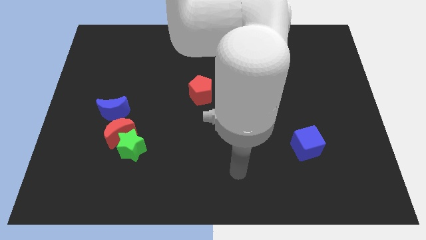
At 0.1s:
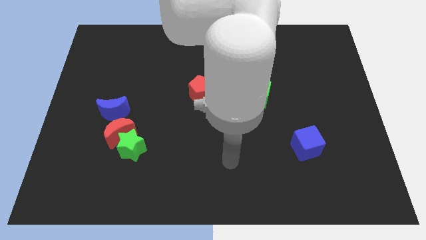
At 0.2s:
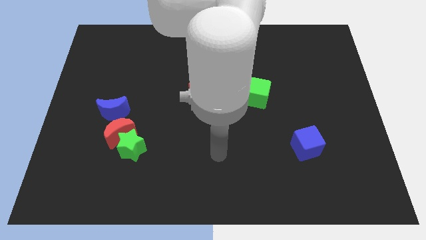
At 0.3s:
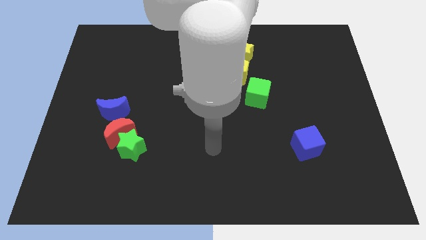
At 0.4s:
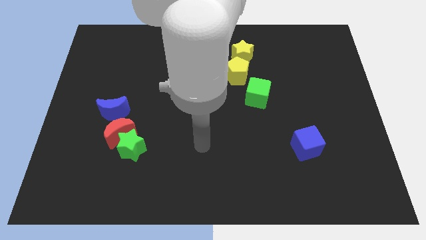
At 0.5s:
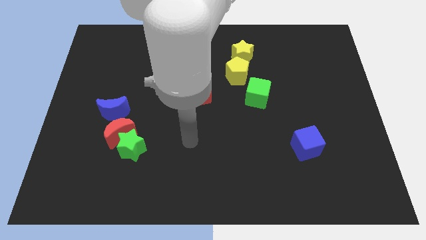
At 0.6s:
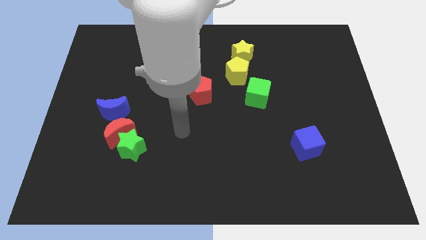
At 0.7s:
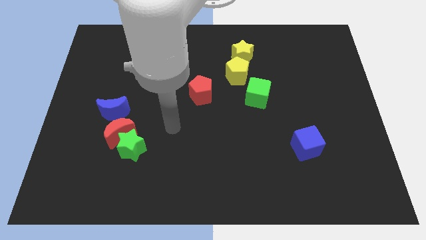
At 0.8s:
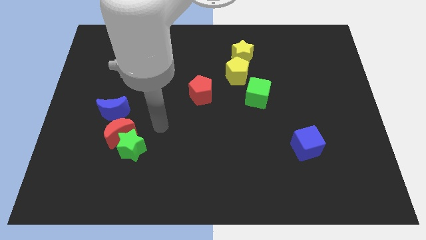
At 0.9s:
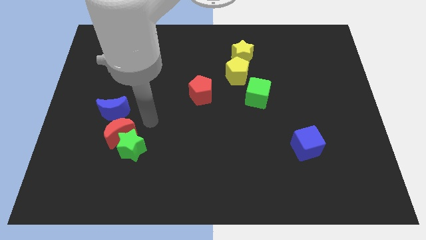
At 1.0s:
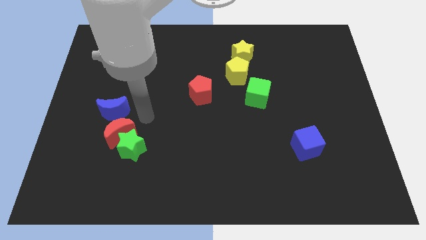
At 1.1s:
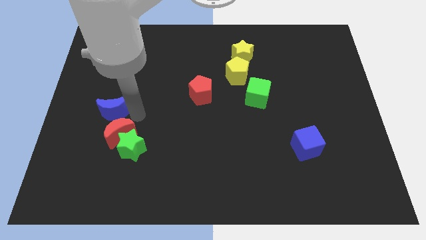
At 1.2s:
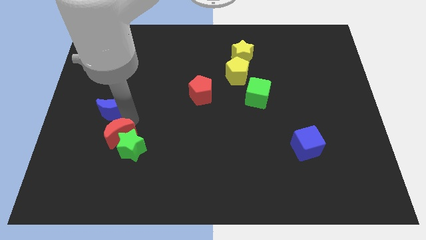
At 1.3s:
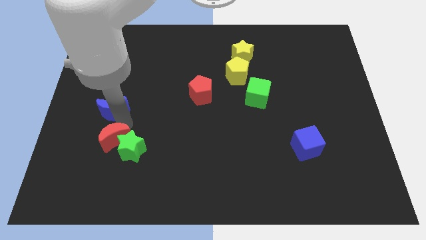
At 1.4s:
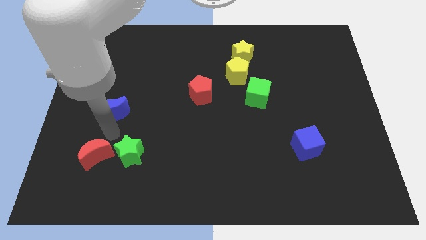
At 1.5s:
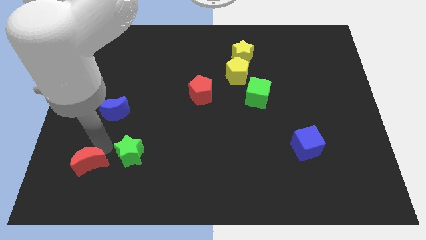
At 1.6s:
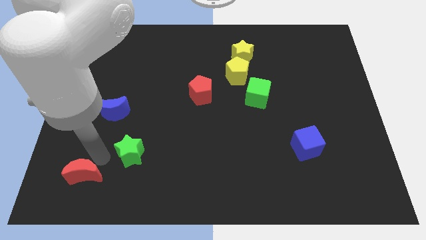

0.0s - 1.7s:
pull the green star apart from the red moon

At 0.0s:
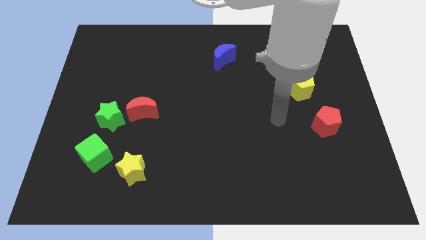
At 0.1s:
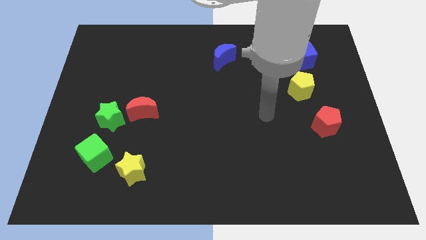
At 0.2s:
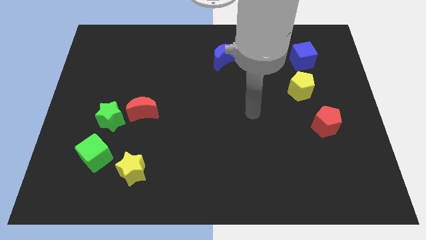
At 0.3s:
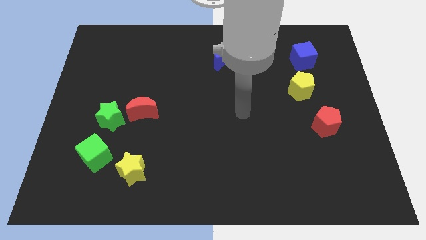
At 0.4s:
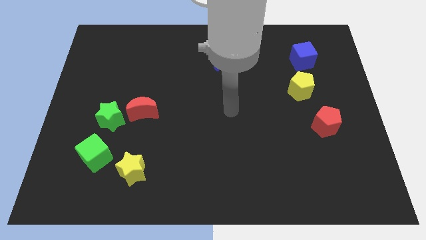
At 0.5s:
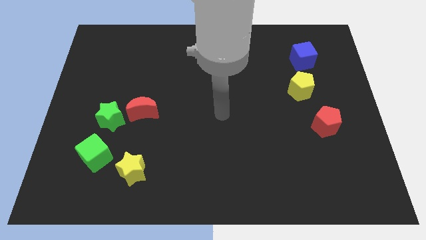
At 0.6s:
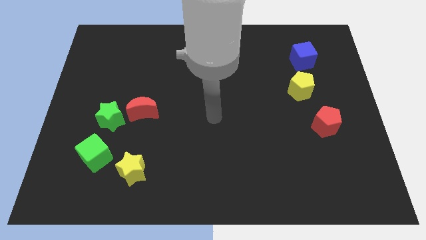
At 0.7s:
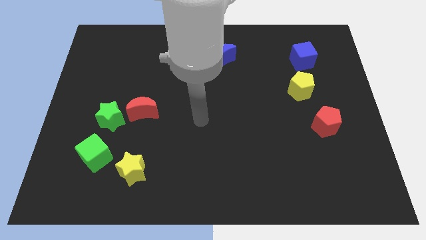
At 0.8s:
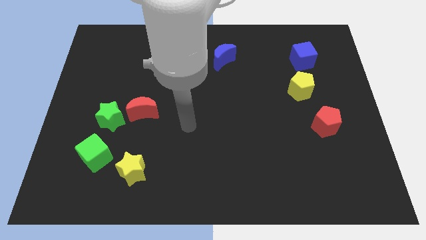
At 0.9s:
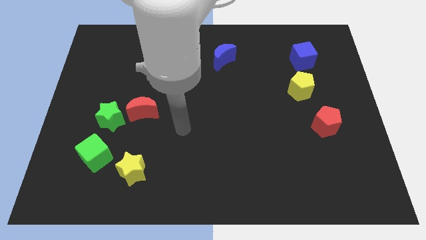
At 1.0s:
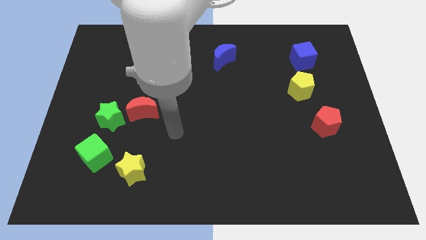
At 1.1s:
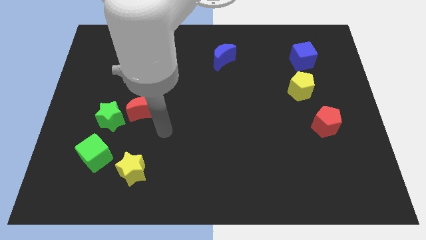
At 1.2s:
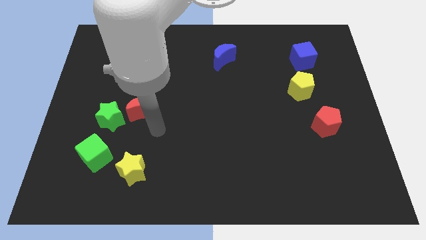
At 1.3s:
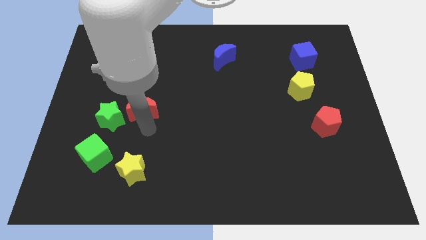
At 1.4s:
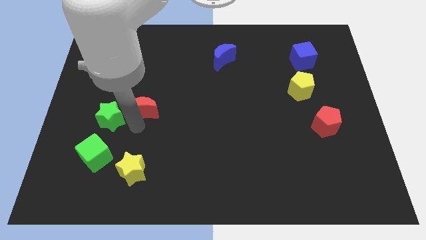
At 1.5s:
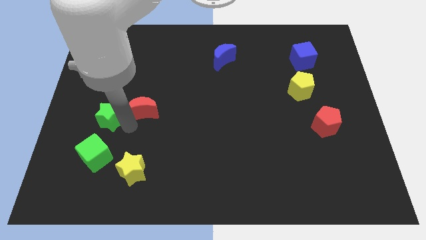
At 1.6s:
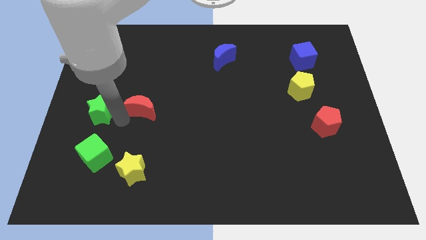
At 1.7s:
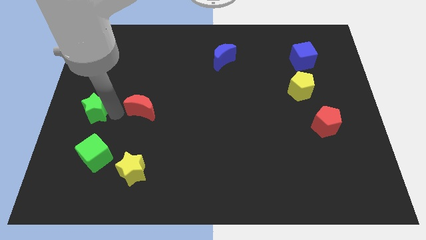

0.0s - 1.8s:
pull the red moon apart from the green star

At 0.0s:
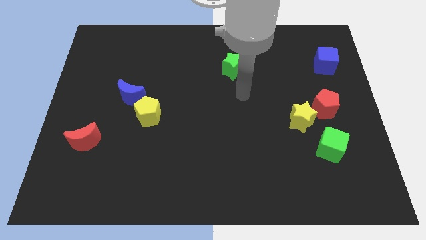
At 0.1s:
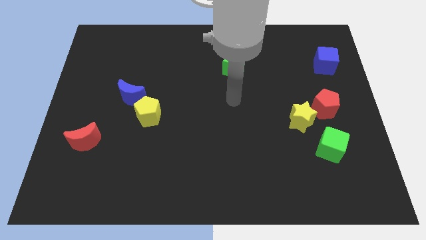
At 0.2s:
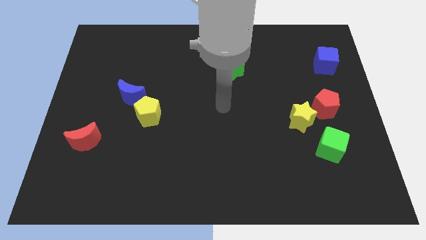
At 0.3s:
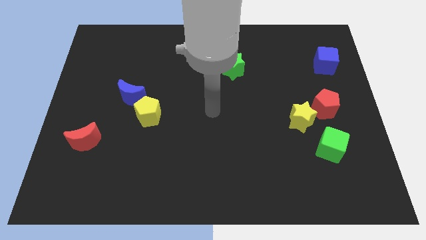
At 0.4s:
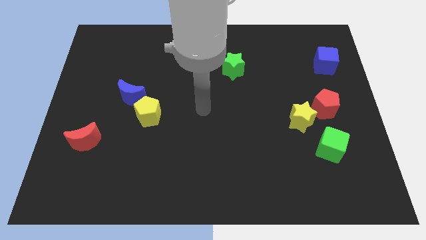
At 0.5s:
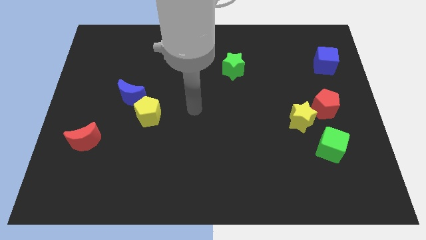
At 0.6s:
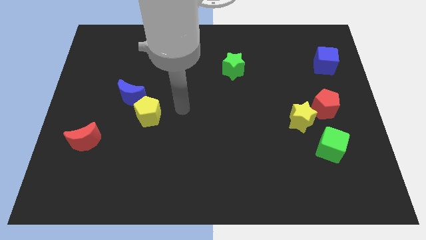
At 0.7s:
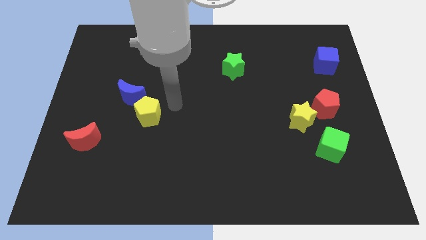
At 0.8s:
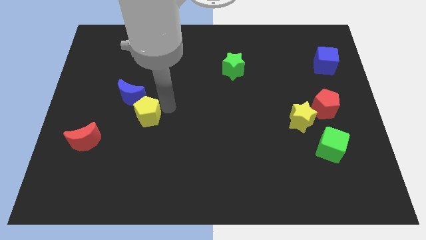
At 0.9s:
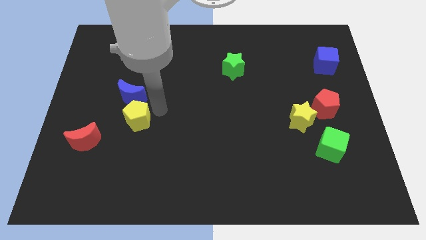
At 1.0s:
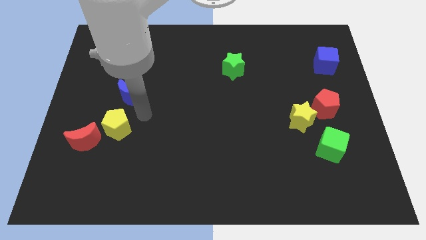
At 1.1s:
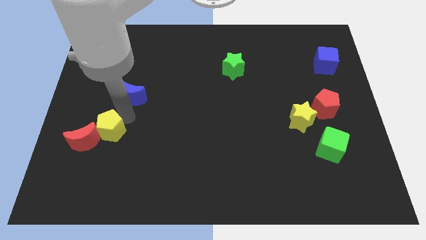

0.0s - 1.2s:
pull the blue moon apart from the yellow pentagon

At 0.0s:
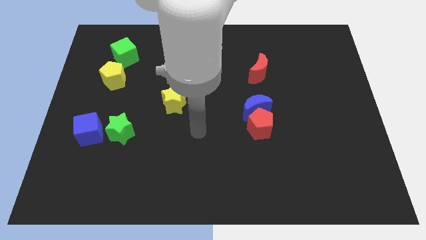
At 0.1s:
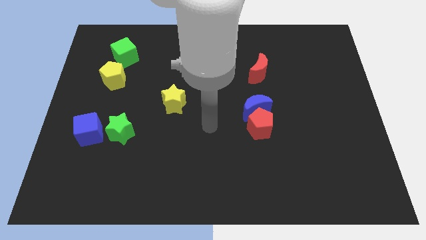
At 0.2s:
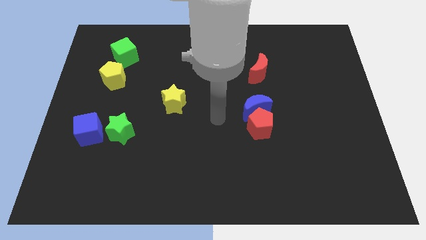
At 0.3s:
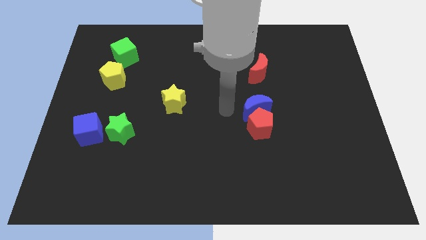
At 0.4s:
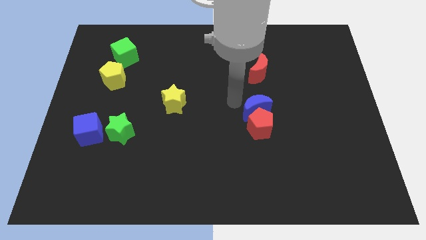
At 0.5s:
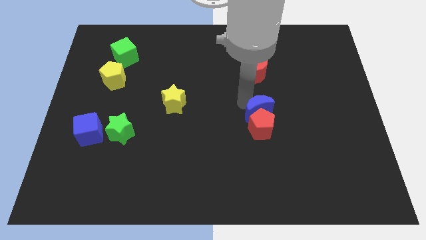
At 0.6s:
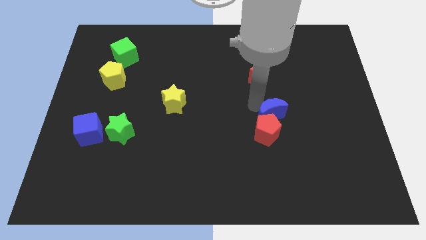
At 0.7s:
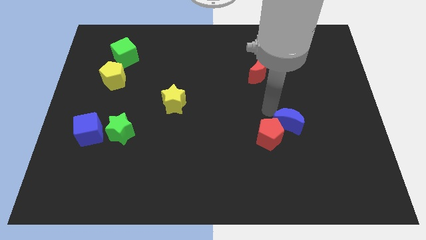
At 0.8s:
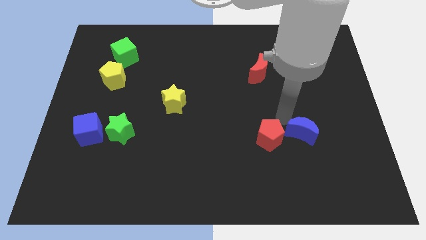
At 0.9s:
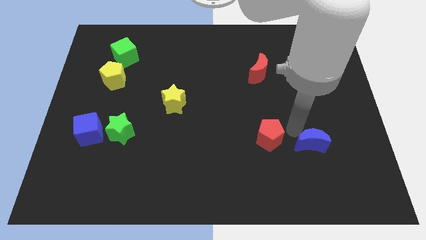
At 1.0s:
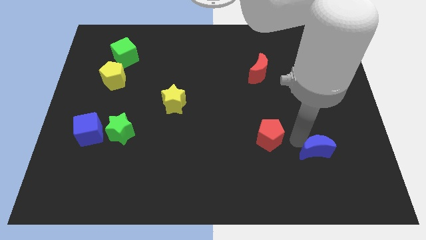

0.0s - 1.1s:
pull the red pentagon apart from the blue moon

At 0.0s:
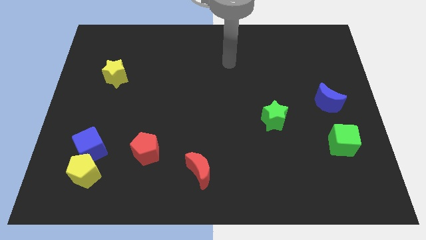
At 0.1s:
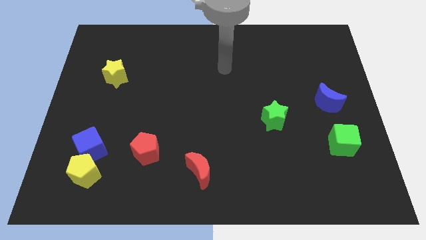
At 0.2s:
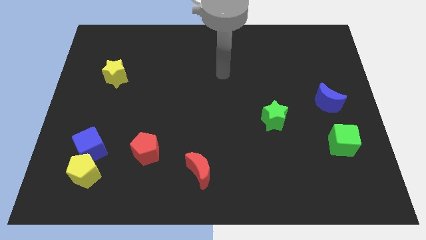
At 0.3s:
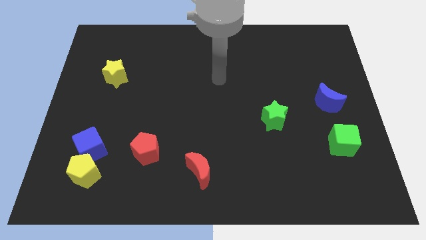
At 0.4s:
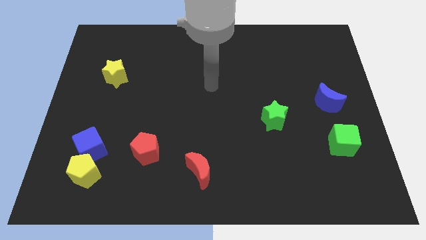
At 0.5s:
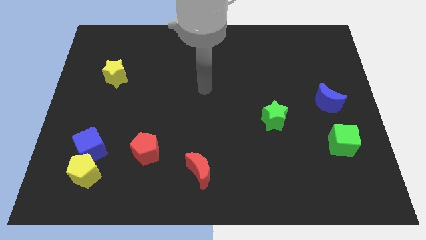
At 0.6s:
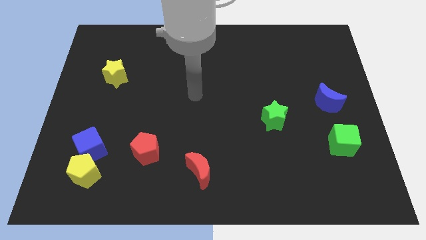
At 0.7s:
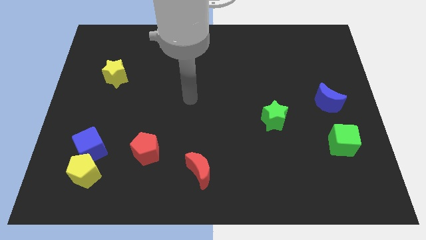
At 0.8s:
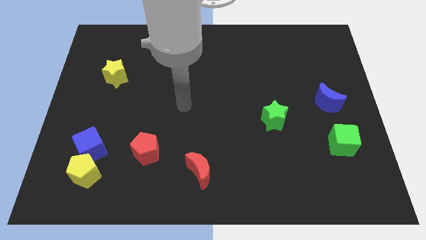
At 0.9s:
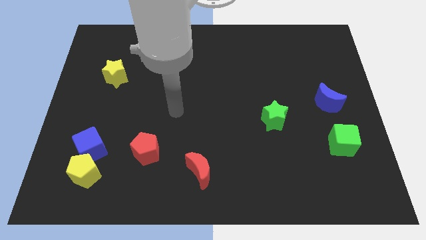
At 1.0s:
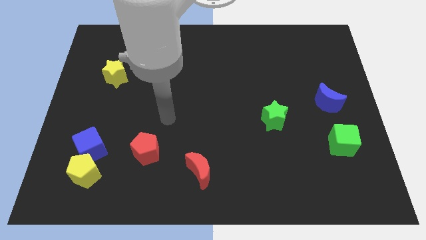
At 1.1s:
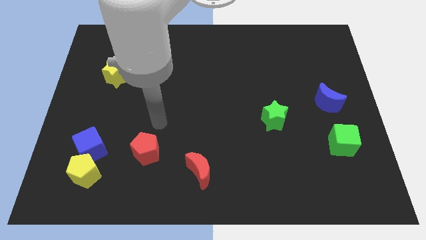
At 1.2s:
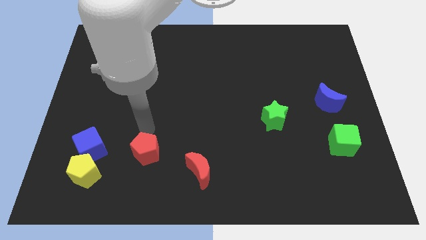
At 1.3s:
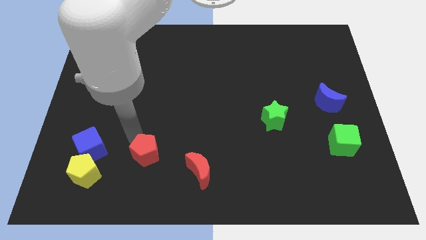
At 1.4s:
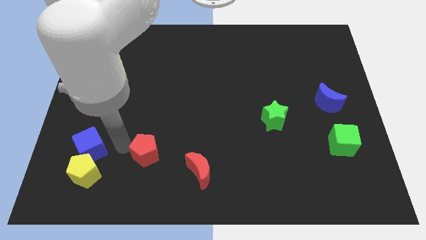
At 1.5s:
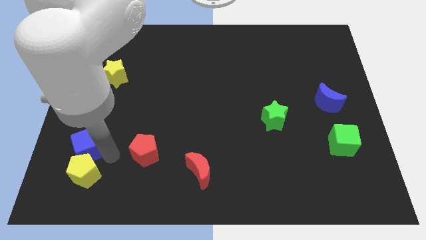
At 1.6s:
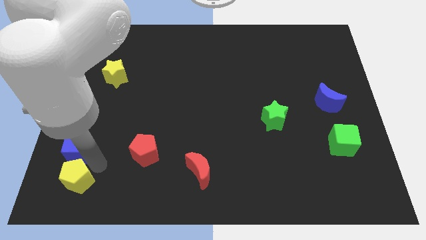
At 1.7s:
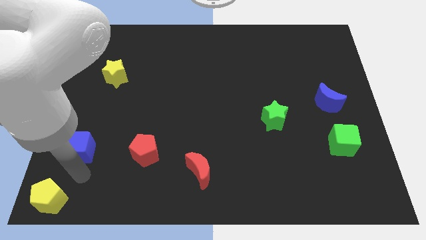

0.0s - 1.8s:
move the blue cube away from the yellow pentagon

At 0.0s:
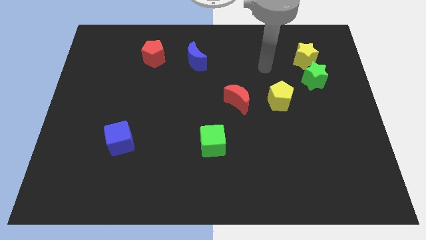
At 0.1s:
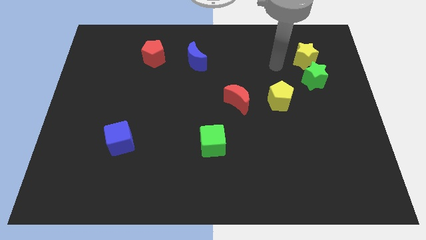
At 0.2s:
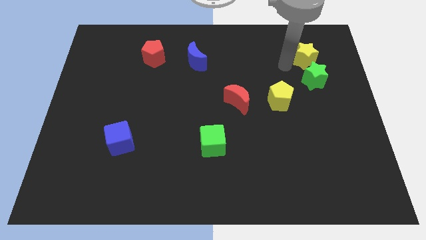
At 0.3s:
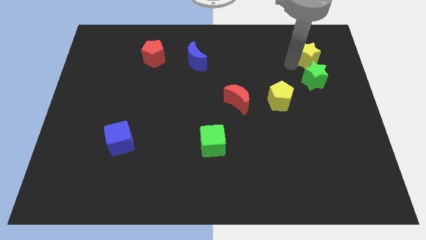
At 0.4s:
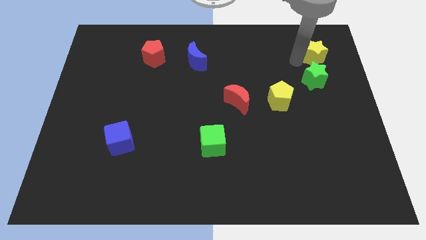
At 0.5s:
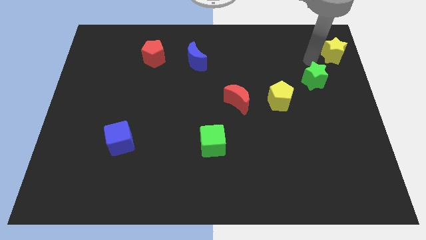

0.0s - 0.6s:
separate the green star from the yellow star

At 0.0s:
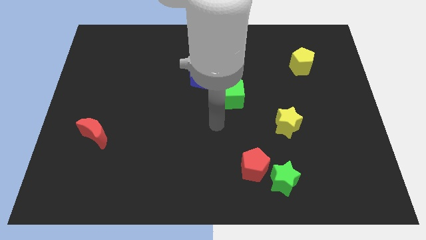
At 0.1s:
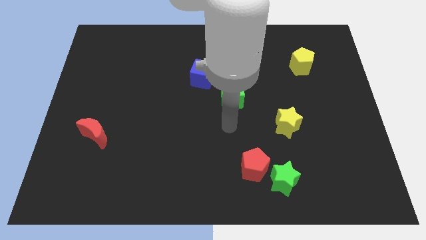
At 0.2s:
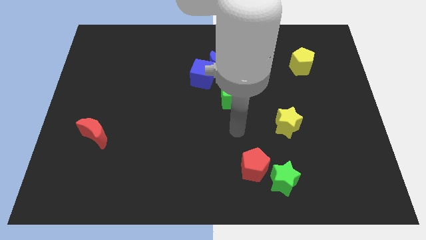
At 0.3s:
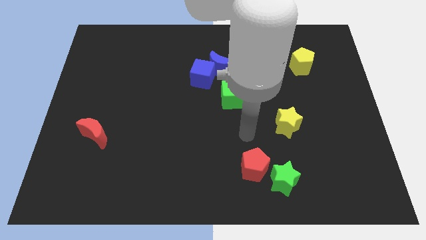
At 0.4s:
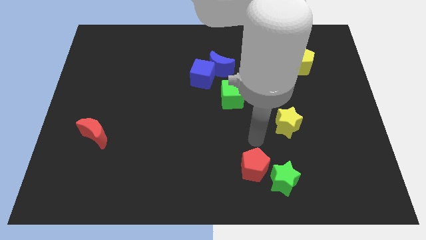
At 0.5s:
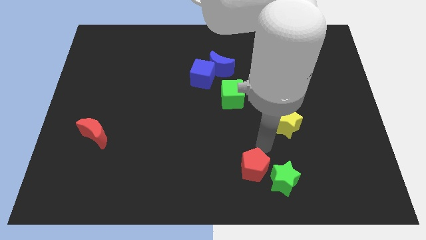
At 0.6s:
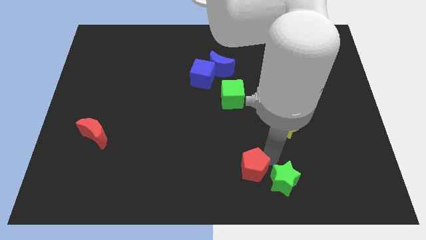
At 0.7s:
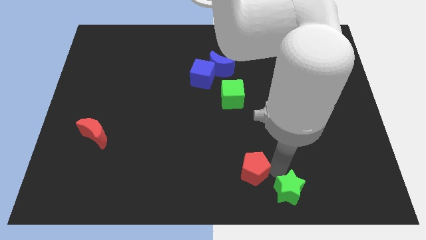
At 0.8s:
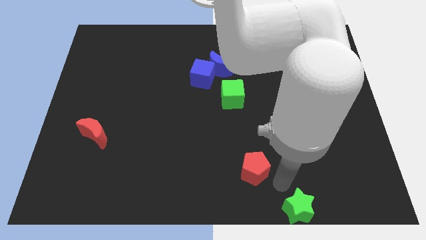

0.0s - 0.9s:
pull the red pentagon apart from the green star
